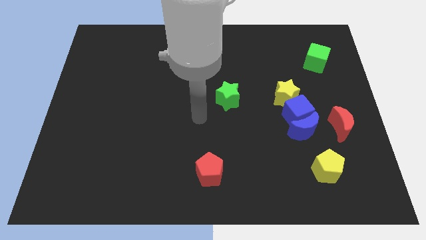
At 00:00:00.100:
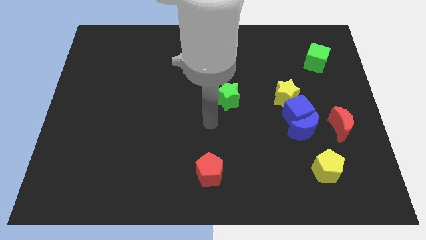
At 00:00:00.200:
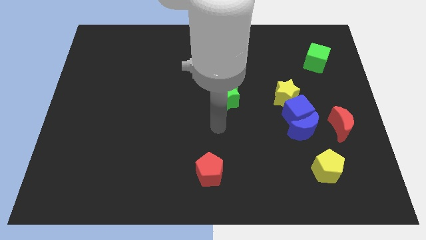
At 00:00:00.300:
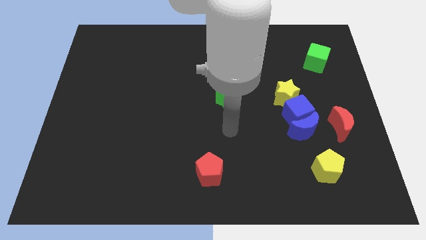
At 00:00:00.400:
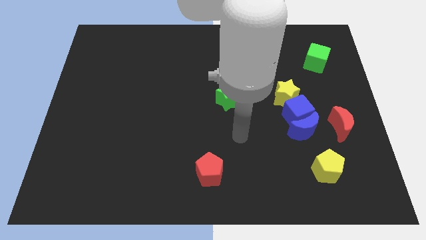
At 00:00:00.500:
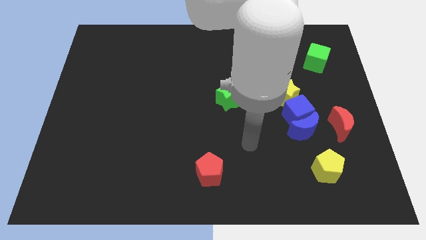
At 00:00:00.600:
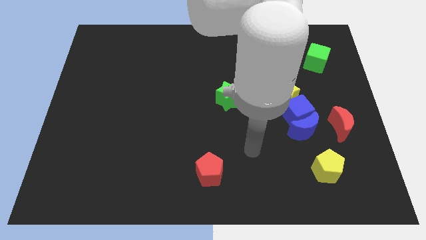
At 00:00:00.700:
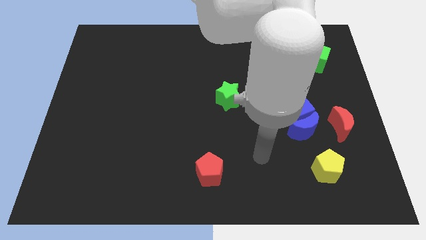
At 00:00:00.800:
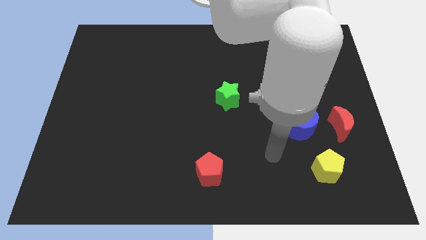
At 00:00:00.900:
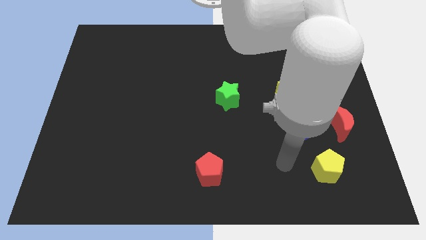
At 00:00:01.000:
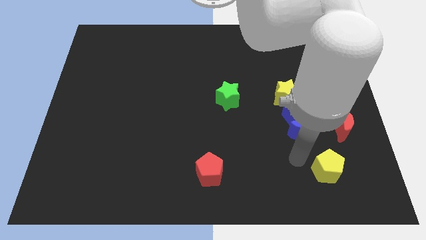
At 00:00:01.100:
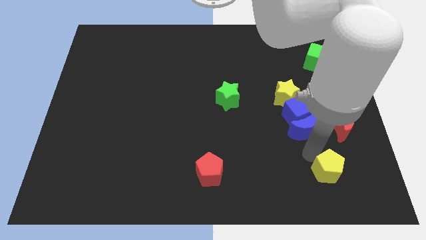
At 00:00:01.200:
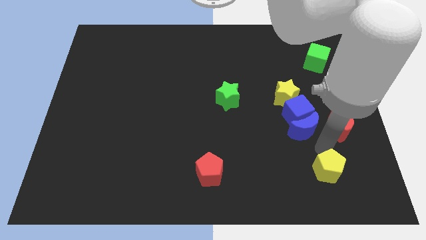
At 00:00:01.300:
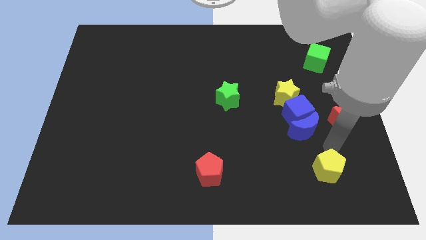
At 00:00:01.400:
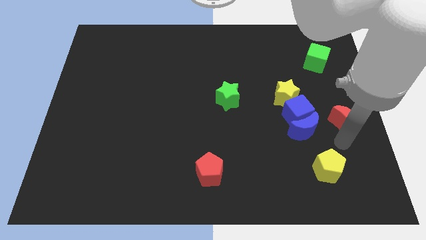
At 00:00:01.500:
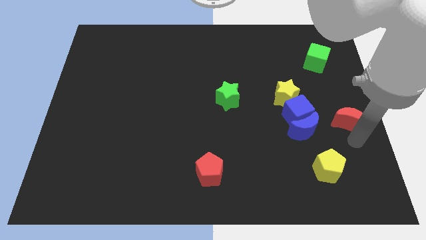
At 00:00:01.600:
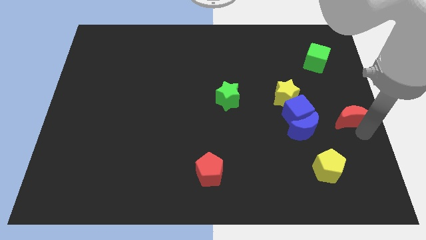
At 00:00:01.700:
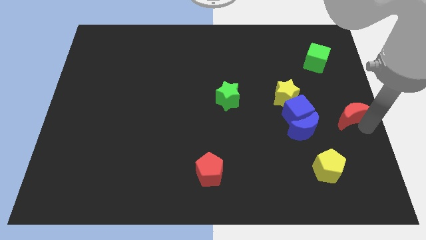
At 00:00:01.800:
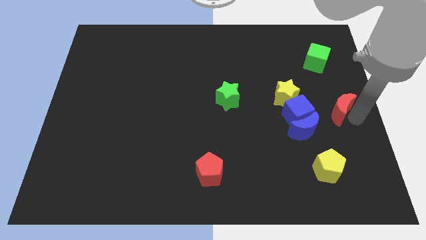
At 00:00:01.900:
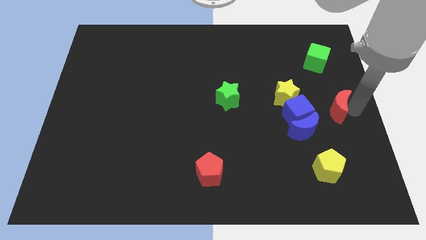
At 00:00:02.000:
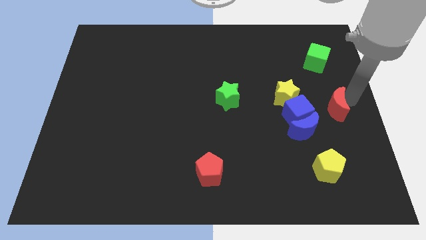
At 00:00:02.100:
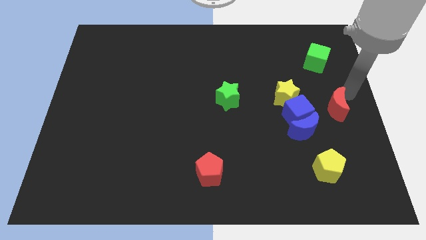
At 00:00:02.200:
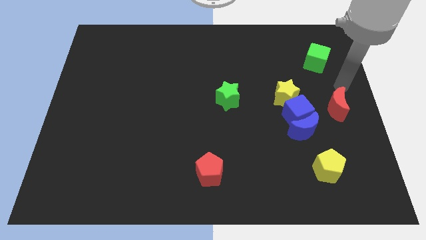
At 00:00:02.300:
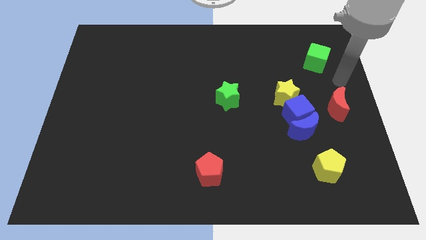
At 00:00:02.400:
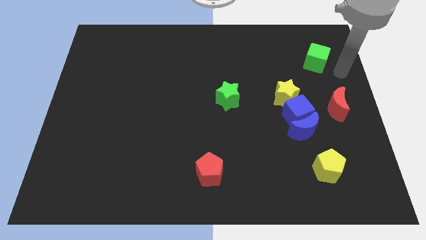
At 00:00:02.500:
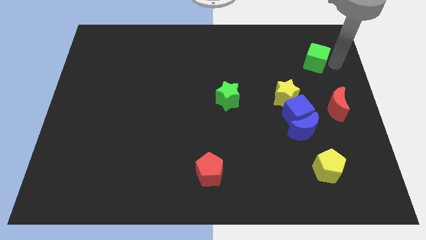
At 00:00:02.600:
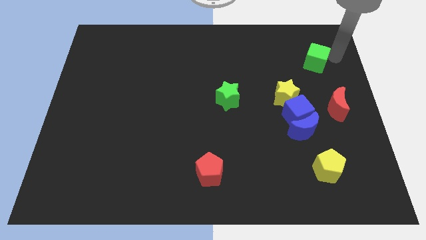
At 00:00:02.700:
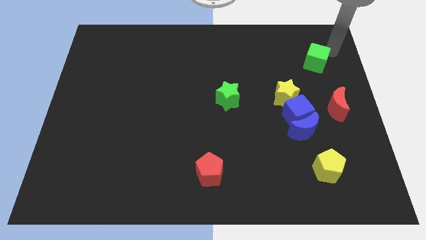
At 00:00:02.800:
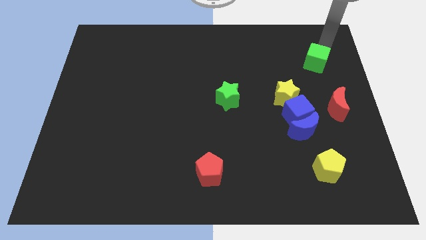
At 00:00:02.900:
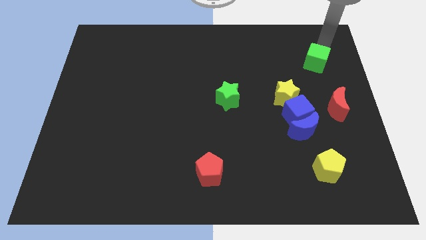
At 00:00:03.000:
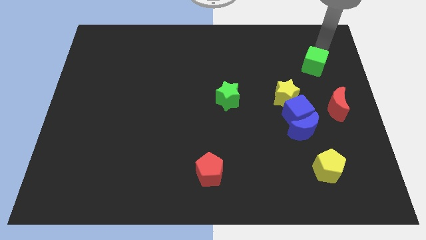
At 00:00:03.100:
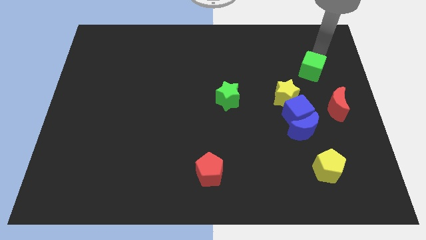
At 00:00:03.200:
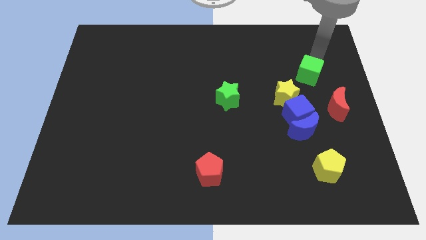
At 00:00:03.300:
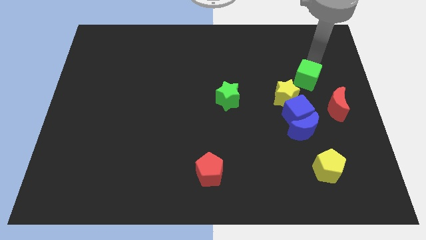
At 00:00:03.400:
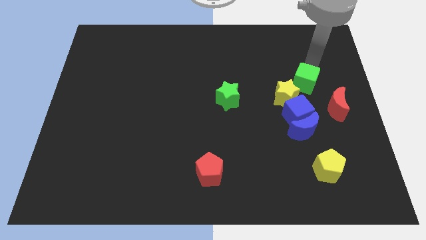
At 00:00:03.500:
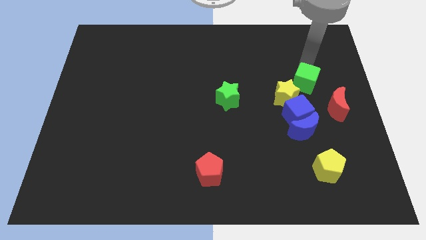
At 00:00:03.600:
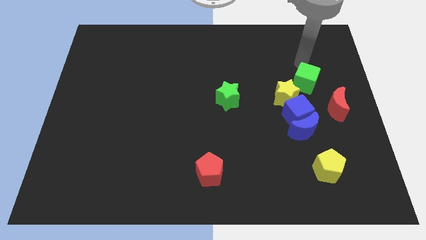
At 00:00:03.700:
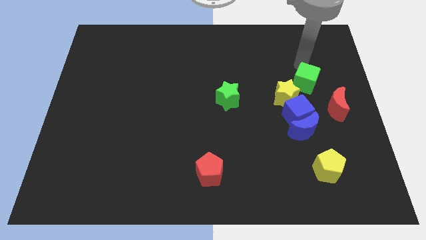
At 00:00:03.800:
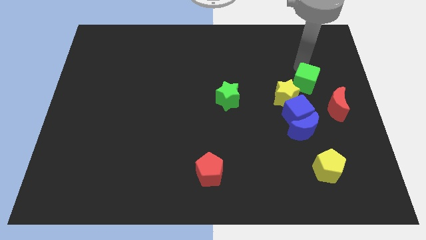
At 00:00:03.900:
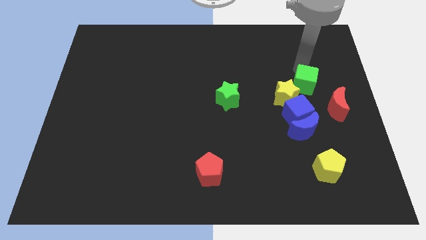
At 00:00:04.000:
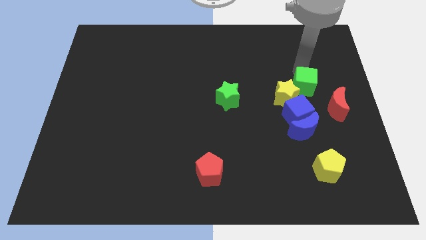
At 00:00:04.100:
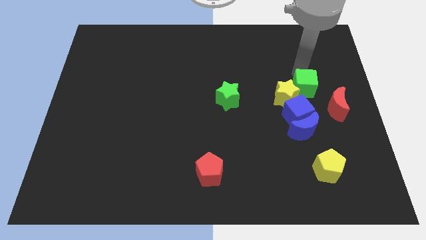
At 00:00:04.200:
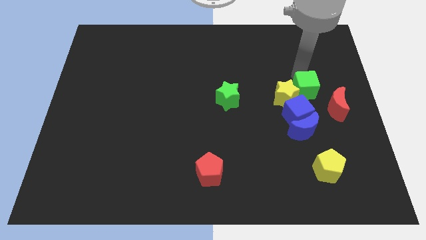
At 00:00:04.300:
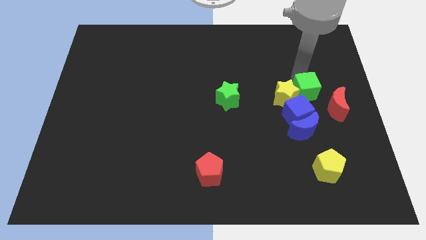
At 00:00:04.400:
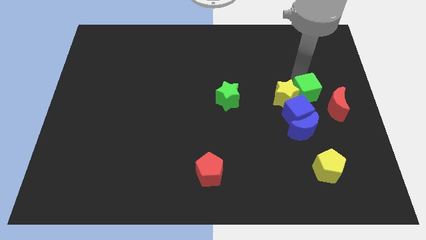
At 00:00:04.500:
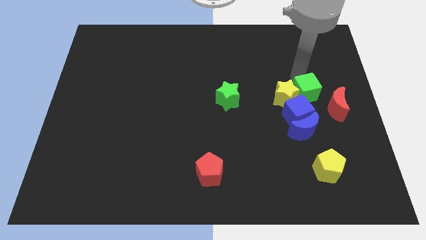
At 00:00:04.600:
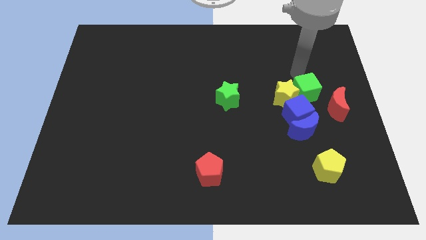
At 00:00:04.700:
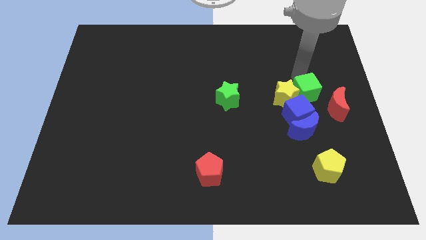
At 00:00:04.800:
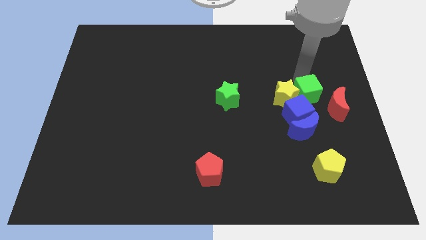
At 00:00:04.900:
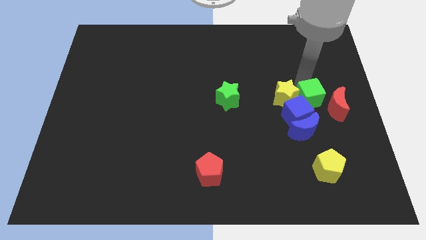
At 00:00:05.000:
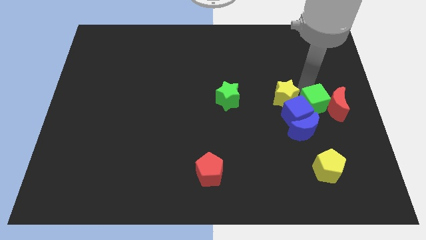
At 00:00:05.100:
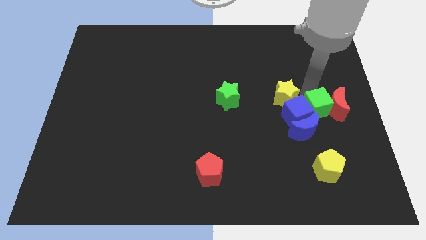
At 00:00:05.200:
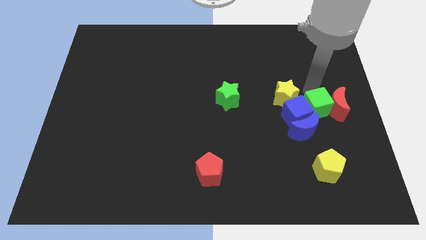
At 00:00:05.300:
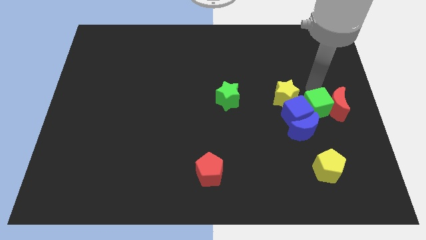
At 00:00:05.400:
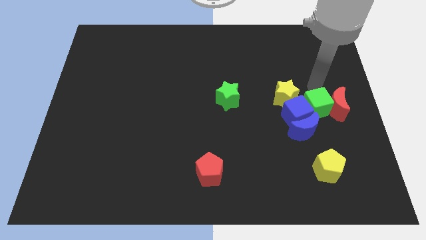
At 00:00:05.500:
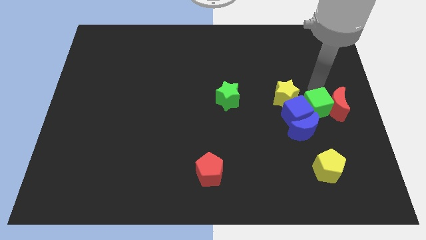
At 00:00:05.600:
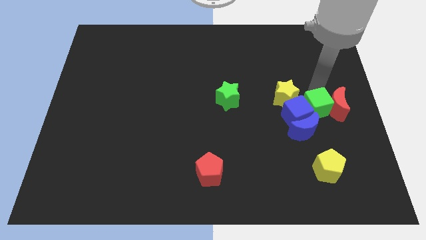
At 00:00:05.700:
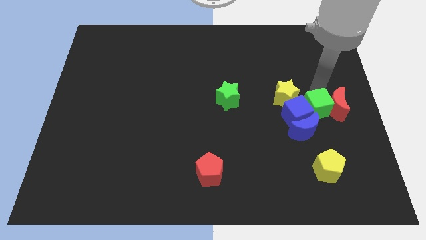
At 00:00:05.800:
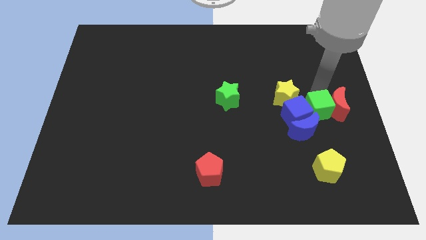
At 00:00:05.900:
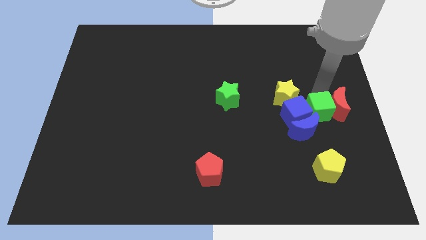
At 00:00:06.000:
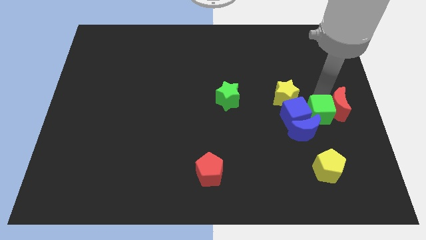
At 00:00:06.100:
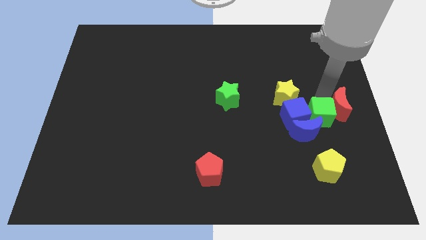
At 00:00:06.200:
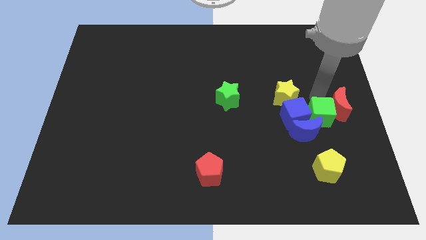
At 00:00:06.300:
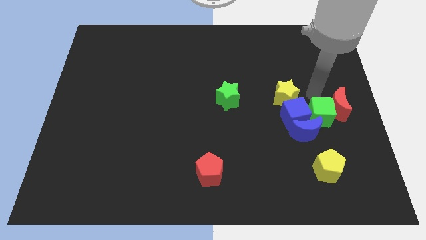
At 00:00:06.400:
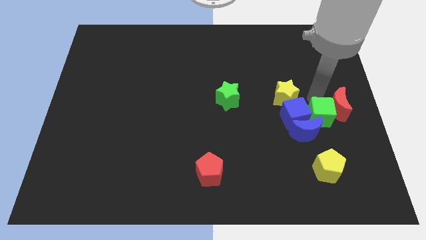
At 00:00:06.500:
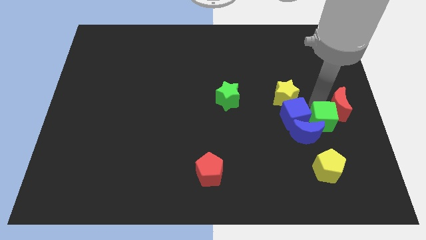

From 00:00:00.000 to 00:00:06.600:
slide the green cube to the bottom of the red moon
